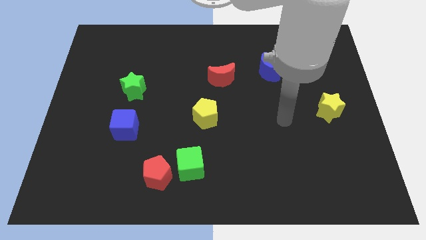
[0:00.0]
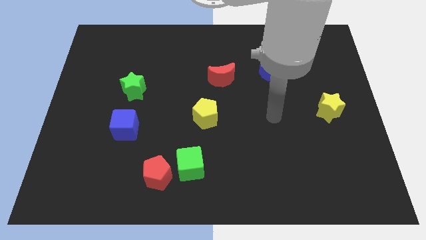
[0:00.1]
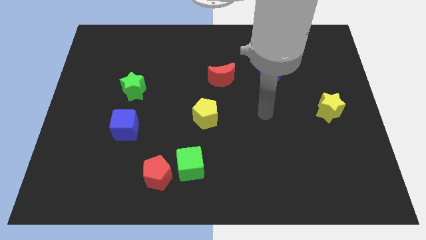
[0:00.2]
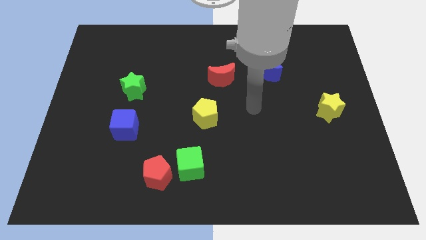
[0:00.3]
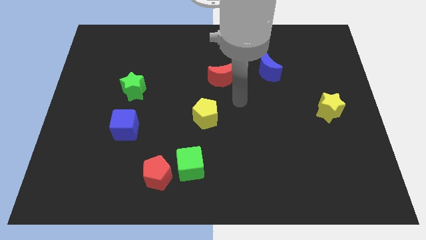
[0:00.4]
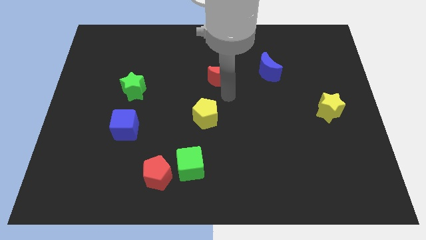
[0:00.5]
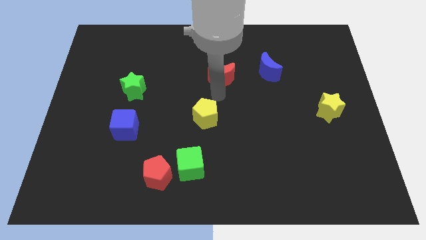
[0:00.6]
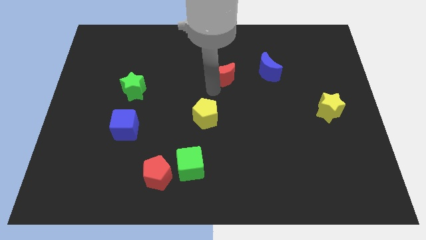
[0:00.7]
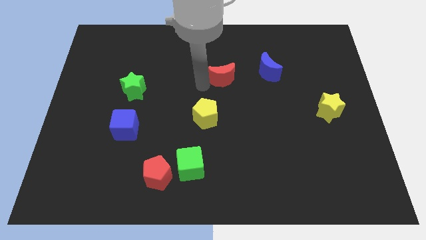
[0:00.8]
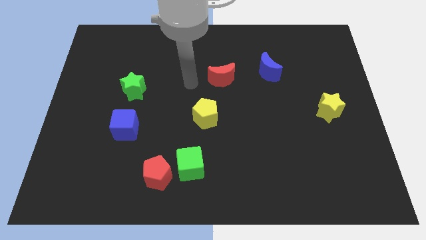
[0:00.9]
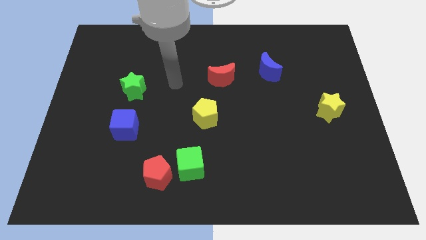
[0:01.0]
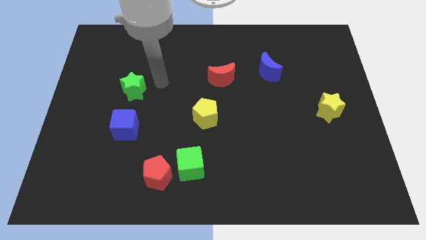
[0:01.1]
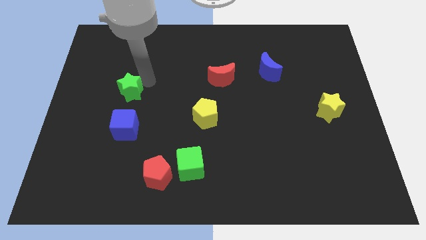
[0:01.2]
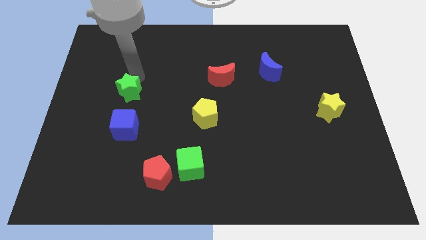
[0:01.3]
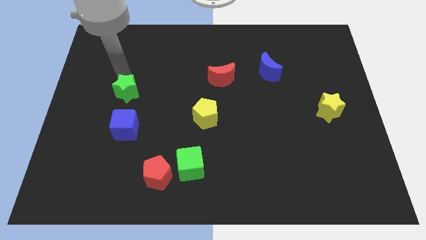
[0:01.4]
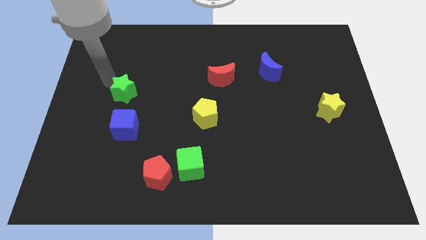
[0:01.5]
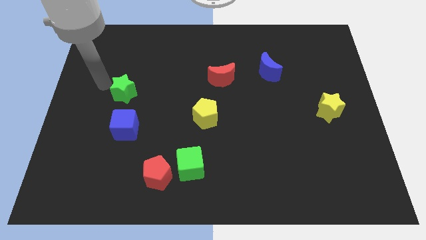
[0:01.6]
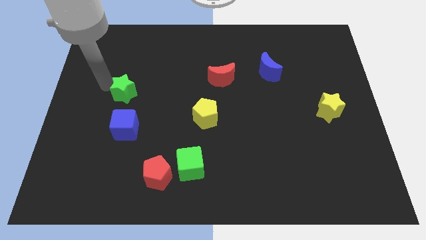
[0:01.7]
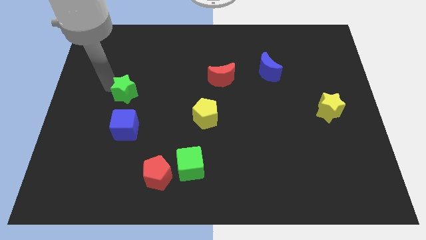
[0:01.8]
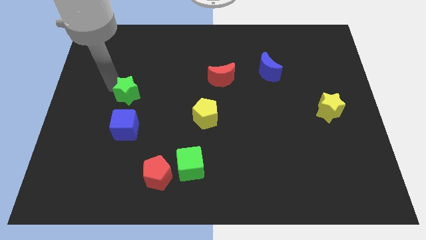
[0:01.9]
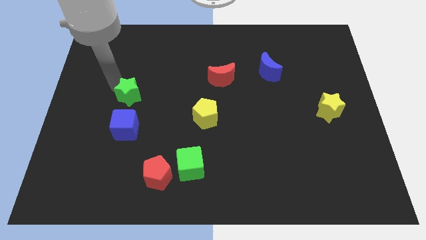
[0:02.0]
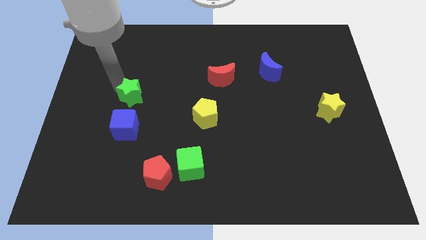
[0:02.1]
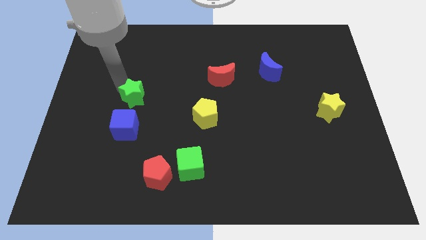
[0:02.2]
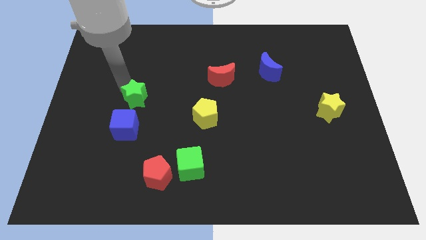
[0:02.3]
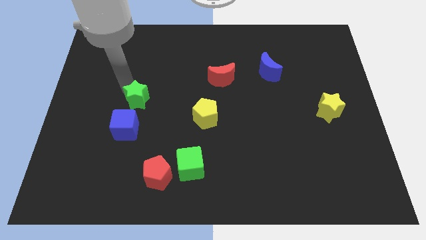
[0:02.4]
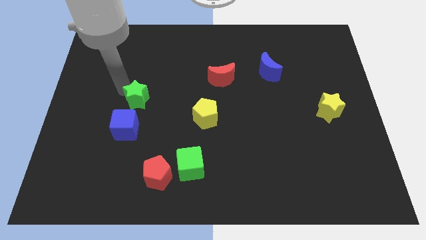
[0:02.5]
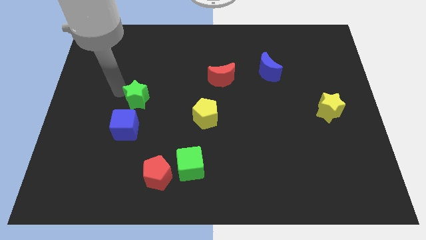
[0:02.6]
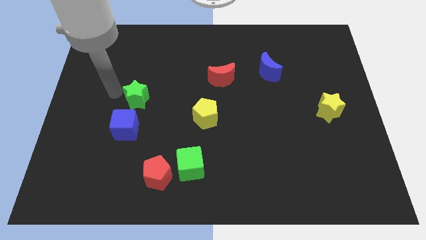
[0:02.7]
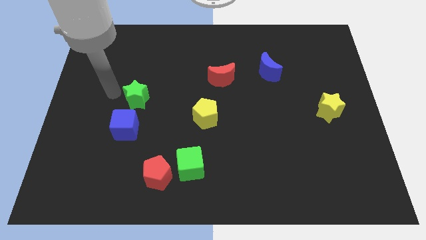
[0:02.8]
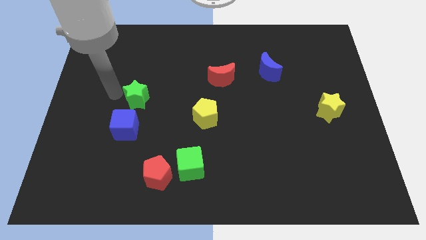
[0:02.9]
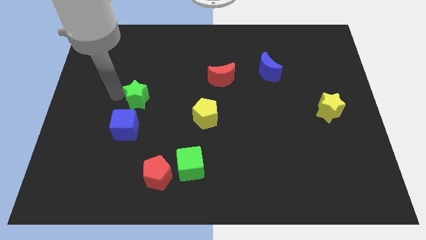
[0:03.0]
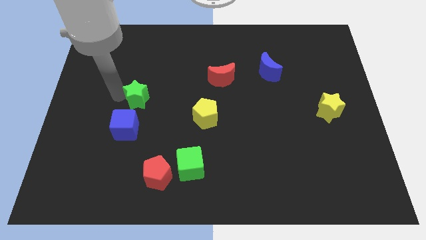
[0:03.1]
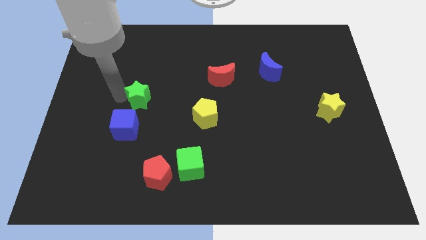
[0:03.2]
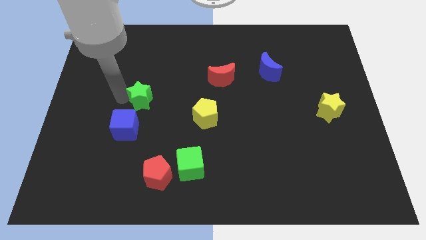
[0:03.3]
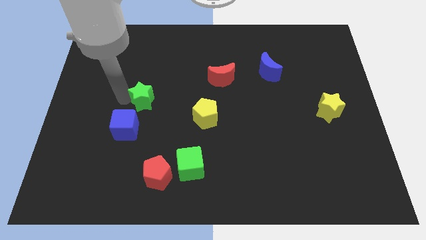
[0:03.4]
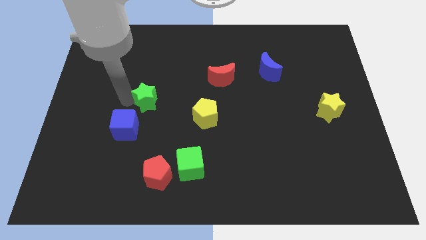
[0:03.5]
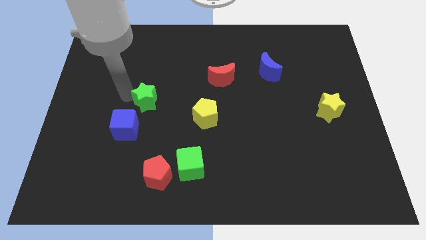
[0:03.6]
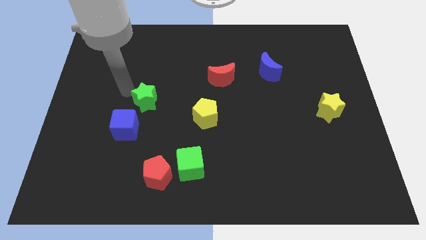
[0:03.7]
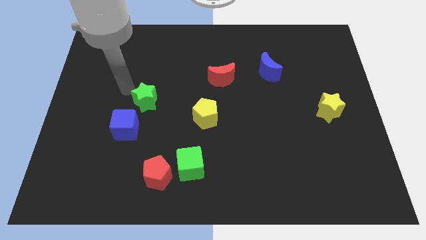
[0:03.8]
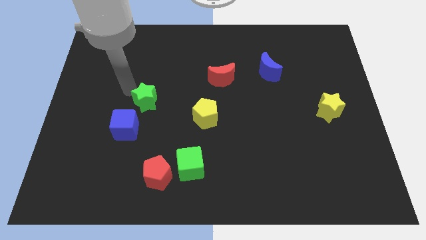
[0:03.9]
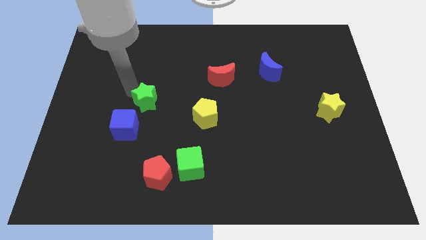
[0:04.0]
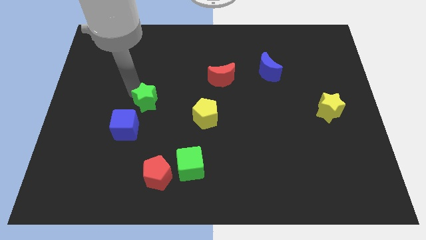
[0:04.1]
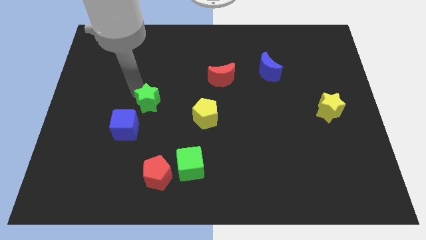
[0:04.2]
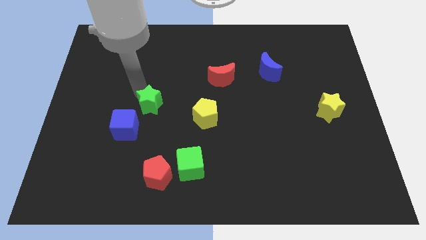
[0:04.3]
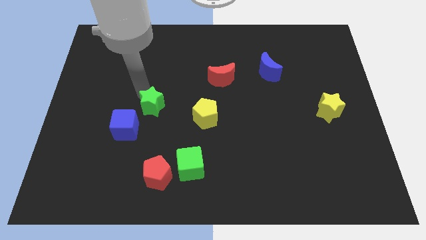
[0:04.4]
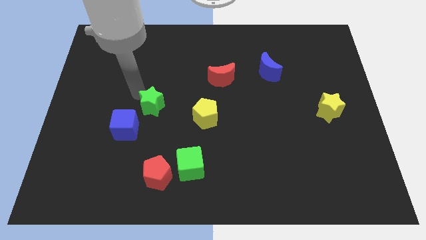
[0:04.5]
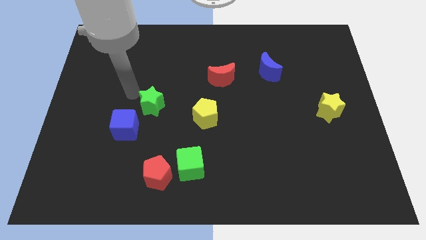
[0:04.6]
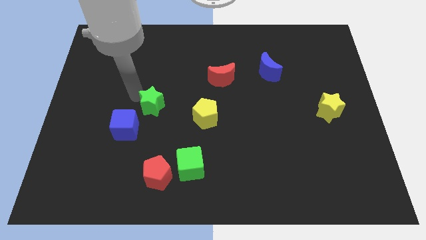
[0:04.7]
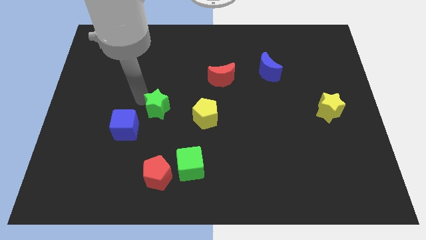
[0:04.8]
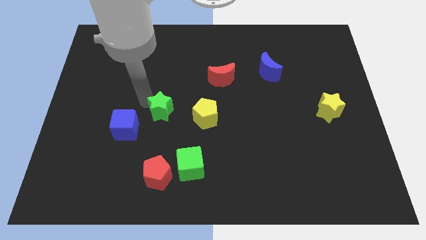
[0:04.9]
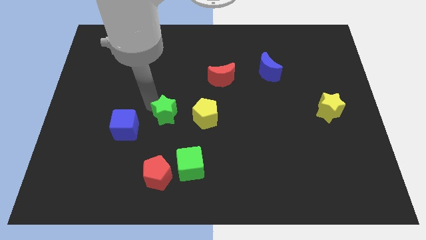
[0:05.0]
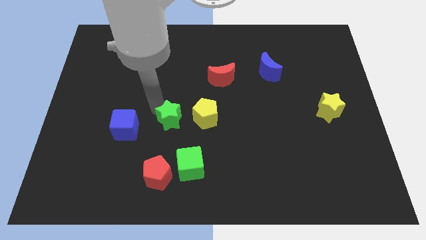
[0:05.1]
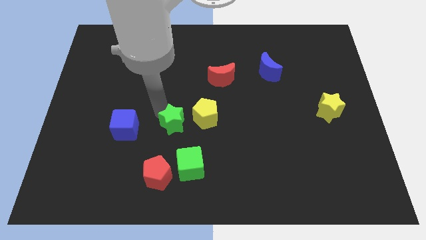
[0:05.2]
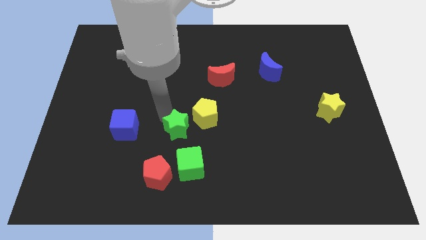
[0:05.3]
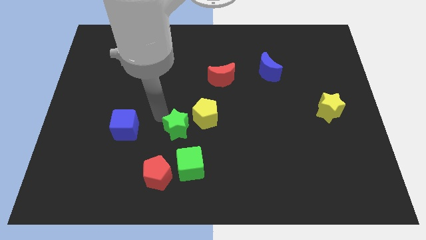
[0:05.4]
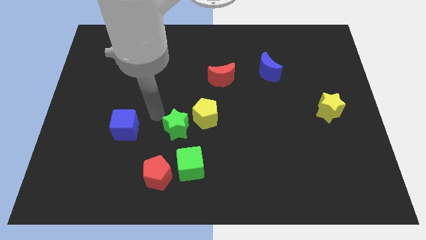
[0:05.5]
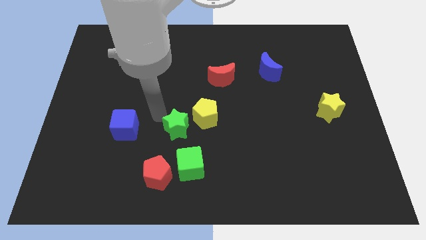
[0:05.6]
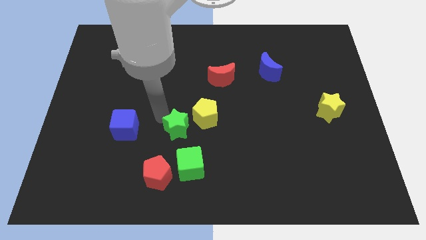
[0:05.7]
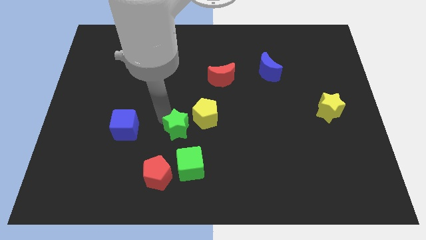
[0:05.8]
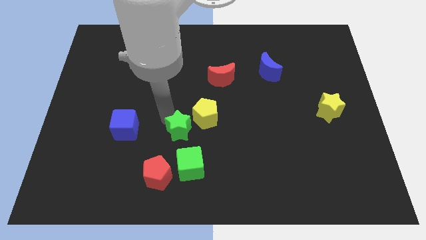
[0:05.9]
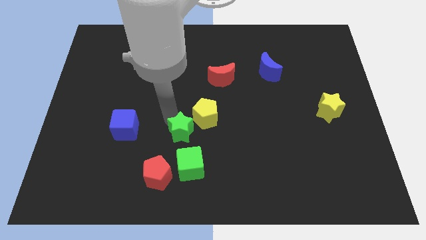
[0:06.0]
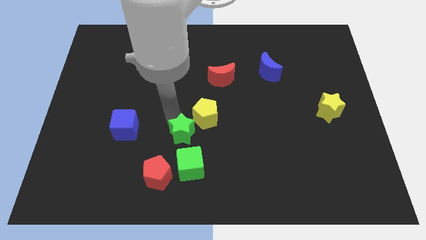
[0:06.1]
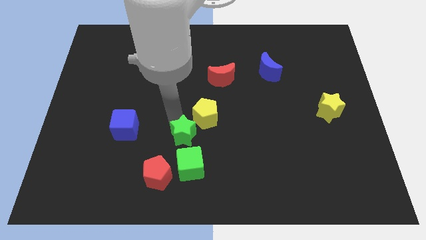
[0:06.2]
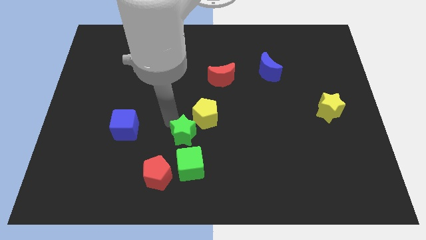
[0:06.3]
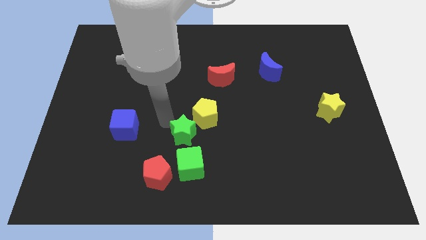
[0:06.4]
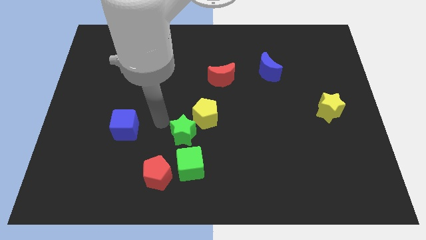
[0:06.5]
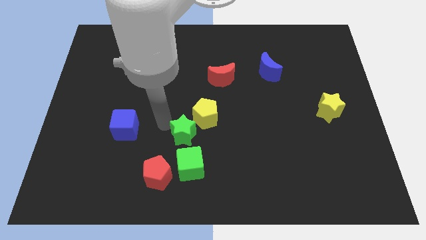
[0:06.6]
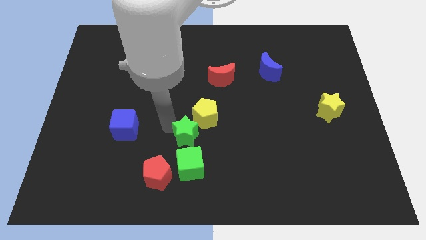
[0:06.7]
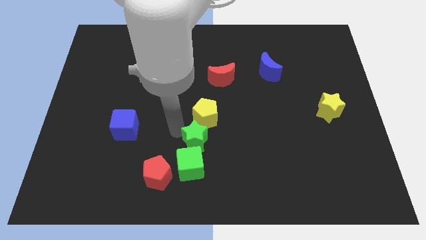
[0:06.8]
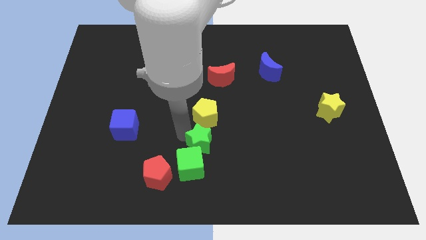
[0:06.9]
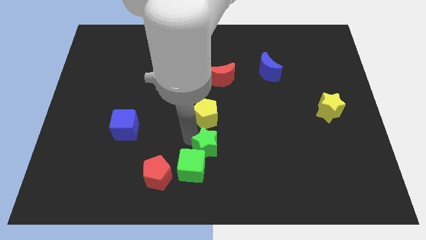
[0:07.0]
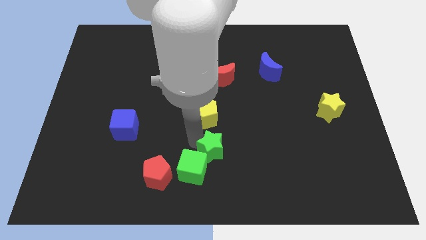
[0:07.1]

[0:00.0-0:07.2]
slide the green star to the right of the green cube

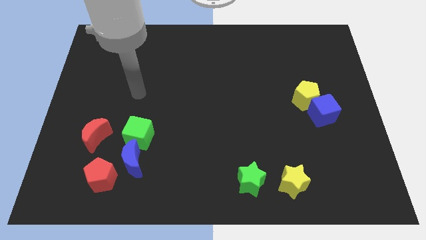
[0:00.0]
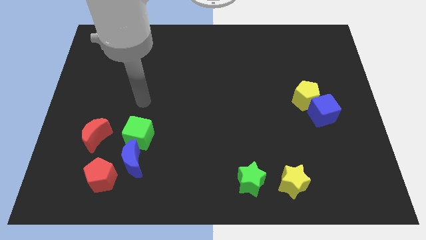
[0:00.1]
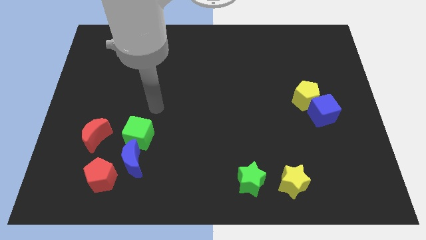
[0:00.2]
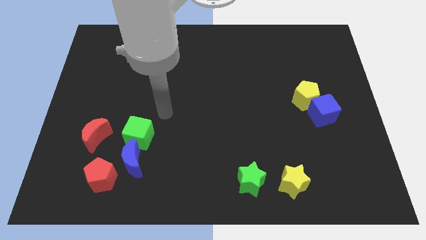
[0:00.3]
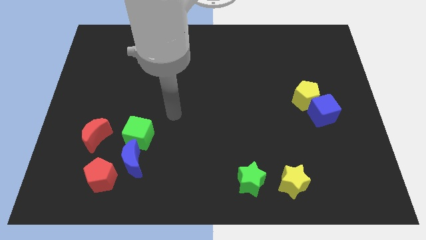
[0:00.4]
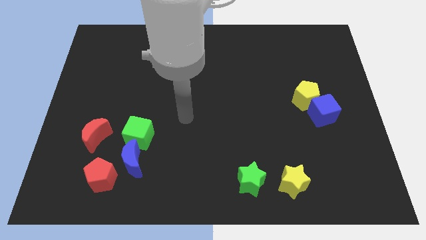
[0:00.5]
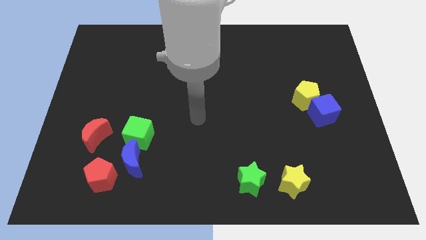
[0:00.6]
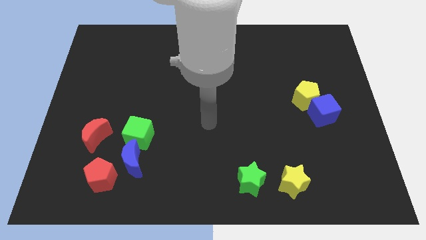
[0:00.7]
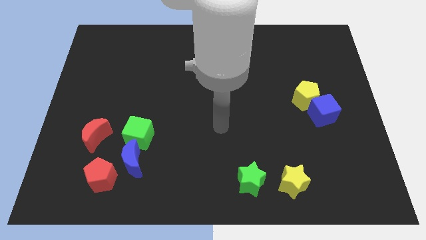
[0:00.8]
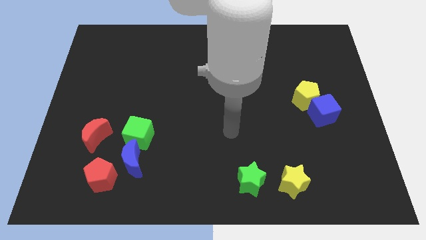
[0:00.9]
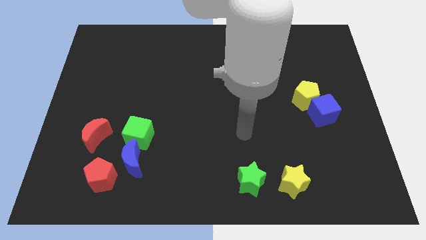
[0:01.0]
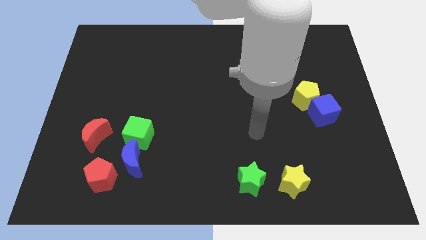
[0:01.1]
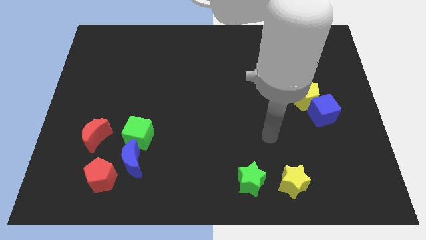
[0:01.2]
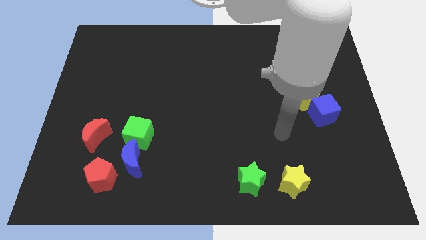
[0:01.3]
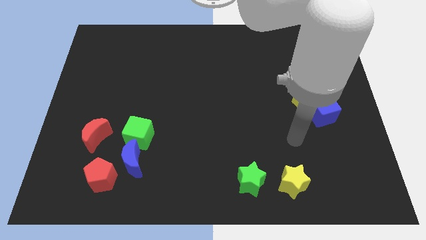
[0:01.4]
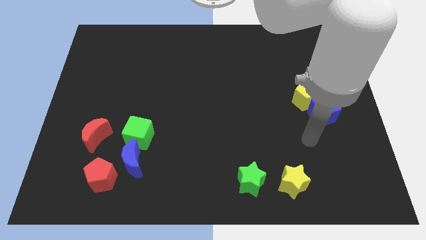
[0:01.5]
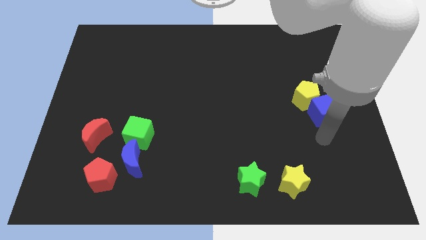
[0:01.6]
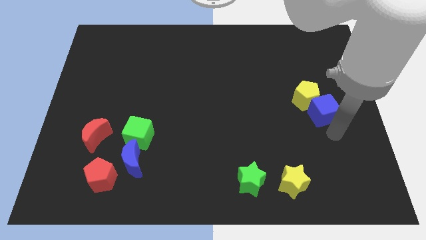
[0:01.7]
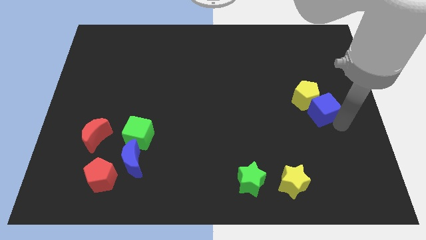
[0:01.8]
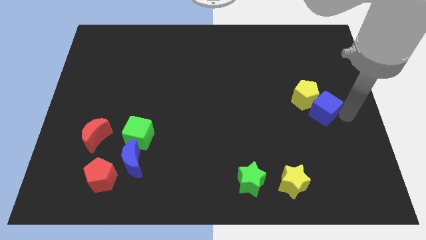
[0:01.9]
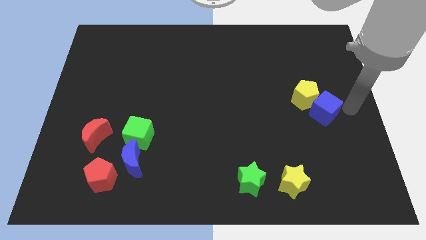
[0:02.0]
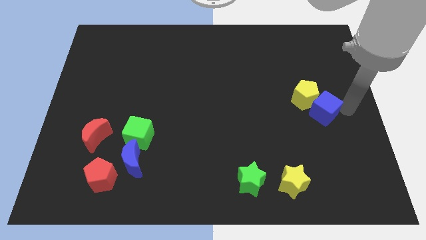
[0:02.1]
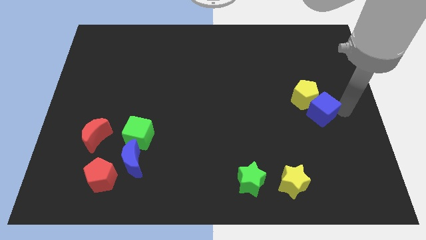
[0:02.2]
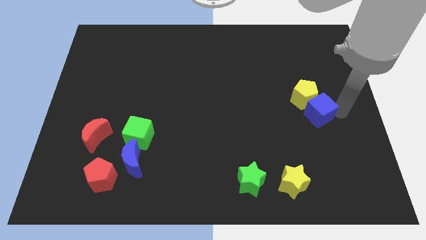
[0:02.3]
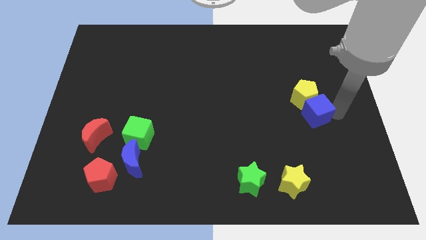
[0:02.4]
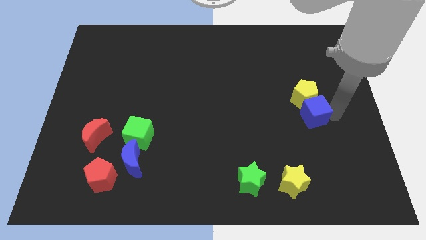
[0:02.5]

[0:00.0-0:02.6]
move the blue cube to the bottom left side of the yellow pentagon
